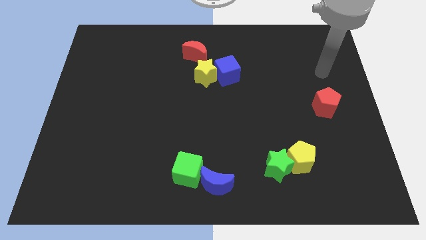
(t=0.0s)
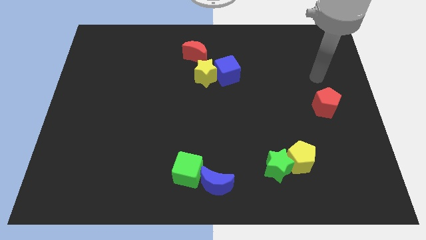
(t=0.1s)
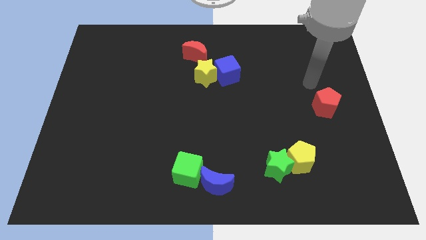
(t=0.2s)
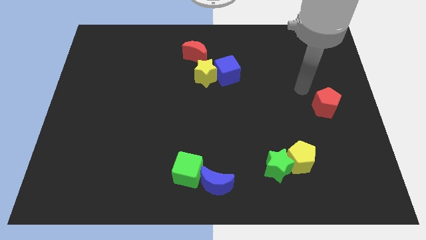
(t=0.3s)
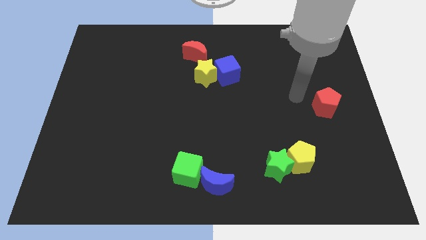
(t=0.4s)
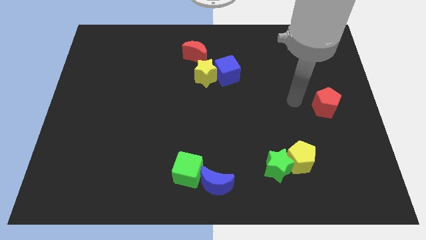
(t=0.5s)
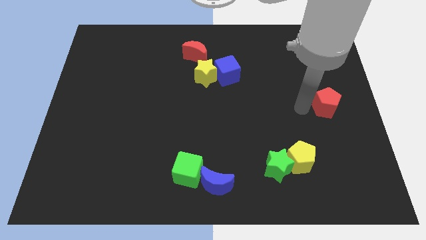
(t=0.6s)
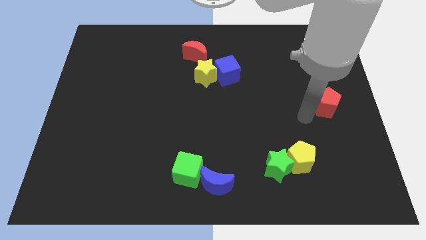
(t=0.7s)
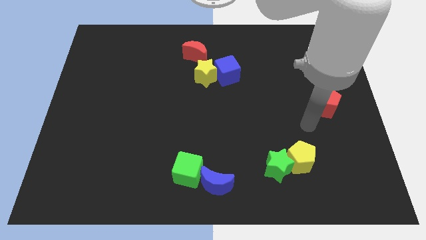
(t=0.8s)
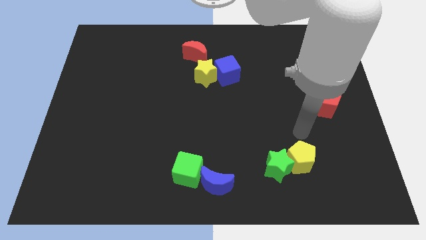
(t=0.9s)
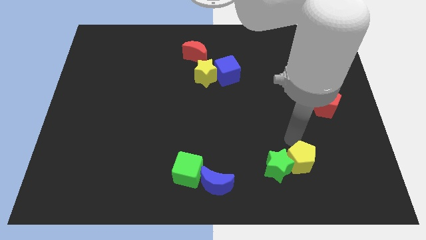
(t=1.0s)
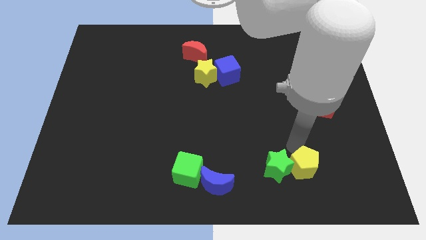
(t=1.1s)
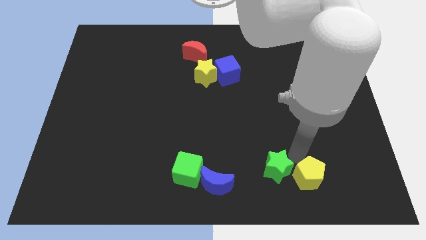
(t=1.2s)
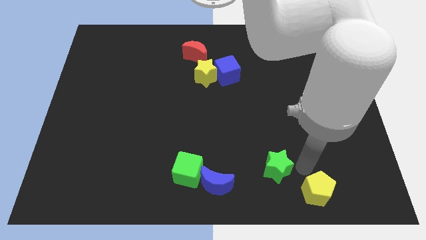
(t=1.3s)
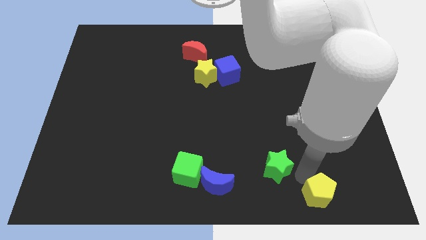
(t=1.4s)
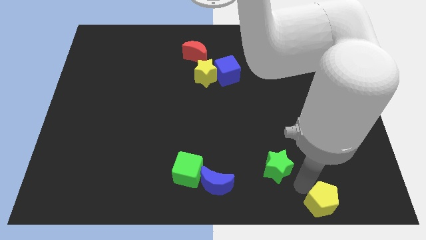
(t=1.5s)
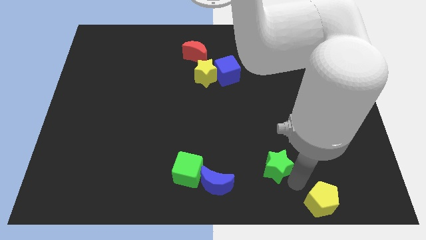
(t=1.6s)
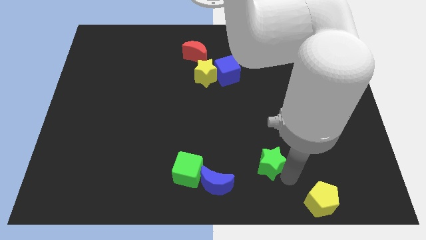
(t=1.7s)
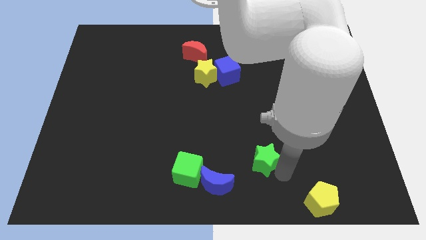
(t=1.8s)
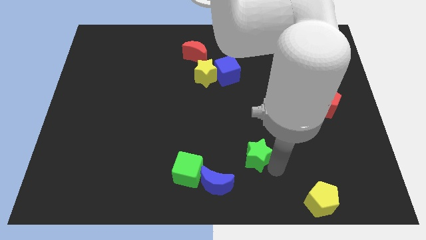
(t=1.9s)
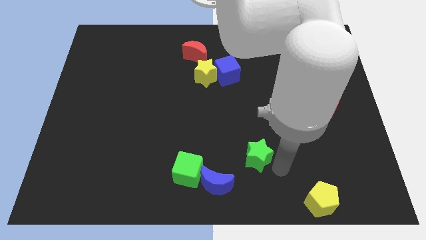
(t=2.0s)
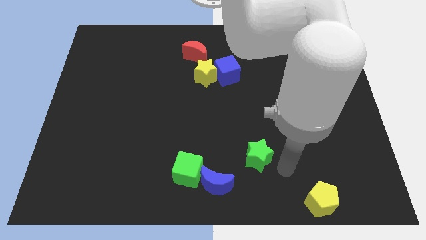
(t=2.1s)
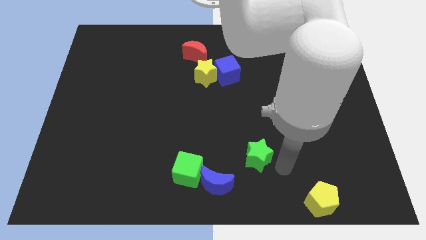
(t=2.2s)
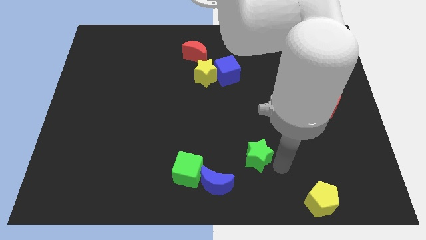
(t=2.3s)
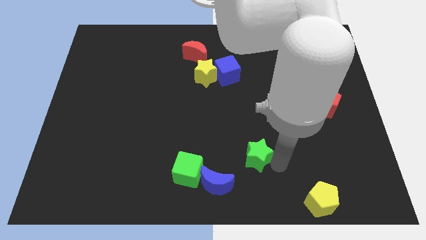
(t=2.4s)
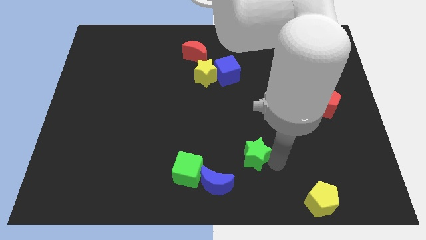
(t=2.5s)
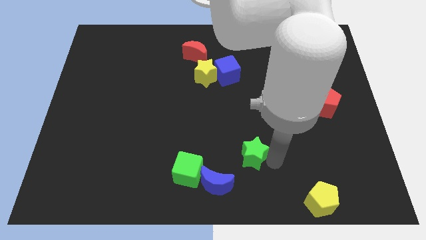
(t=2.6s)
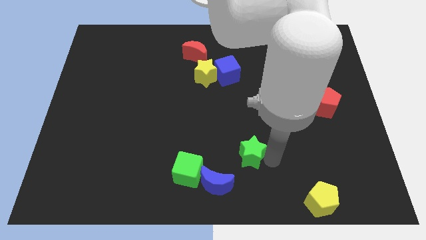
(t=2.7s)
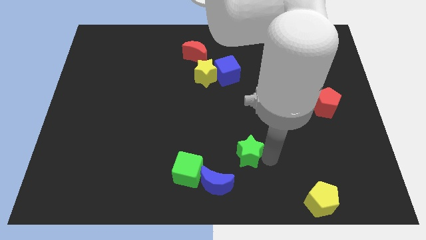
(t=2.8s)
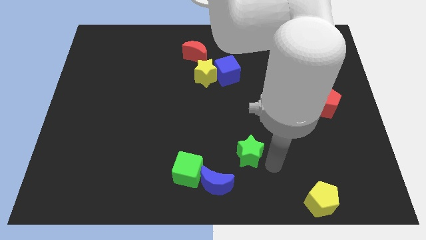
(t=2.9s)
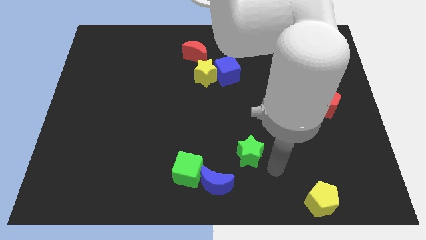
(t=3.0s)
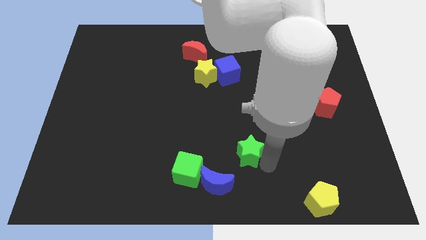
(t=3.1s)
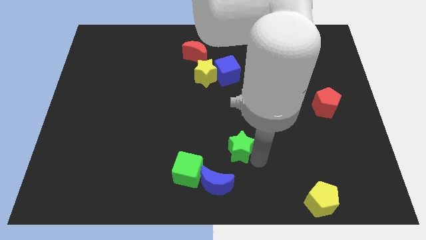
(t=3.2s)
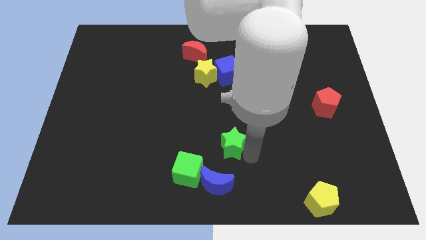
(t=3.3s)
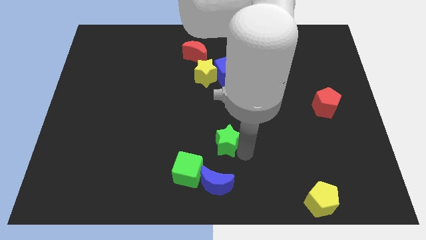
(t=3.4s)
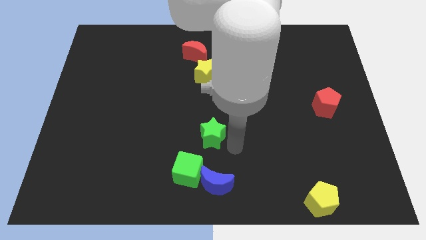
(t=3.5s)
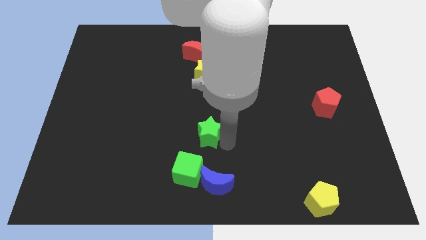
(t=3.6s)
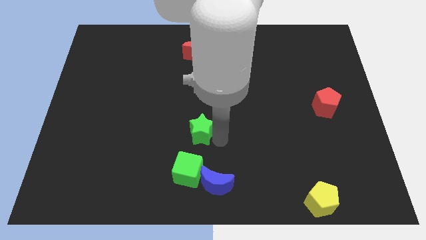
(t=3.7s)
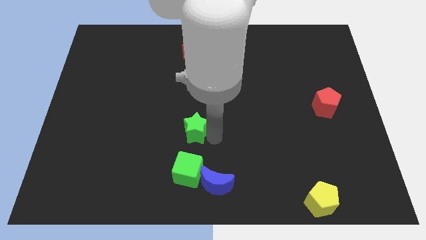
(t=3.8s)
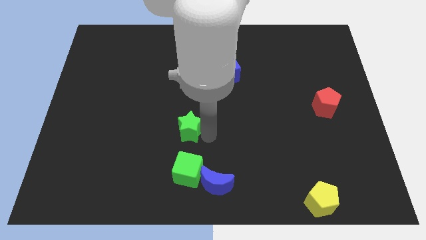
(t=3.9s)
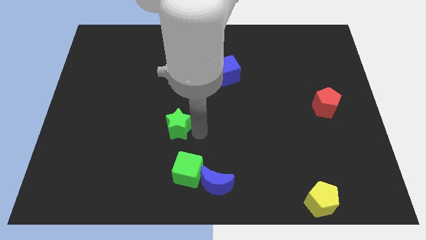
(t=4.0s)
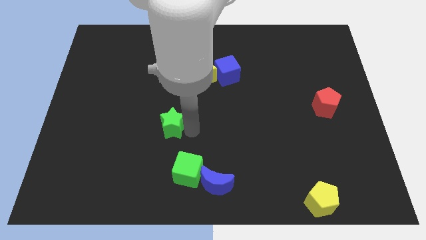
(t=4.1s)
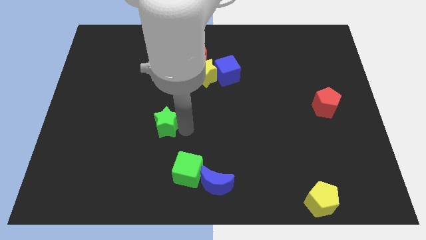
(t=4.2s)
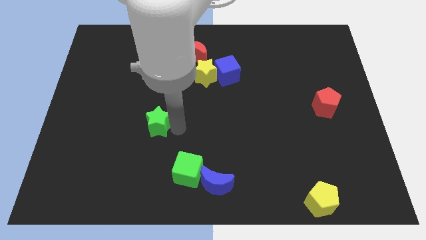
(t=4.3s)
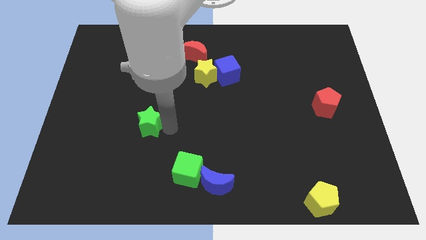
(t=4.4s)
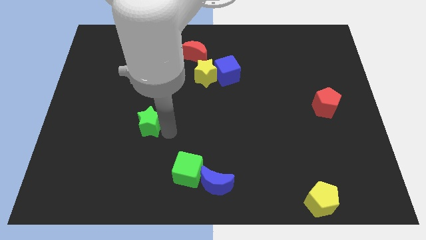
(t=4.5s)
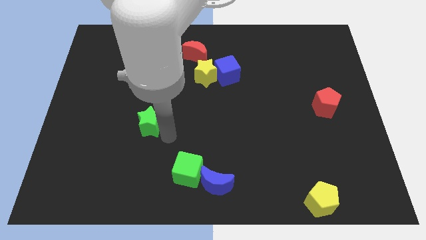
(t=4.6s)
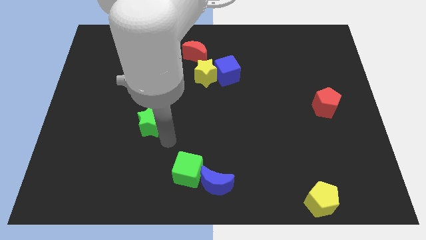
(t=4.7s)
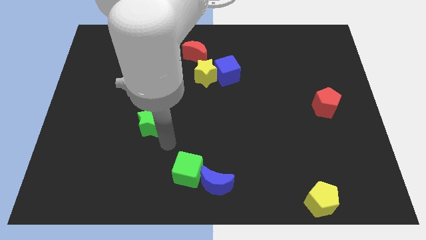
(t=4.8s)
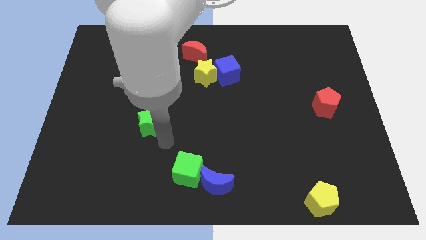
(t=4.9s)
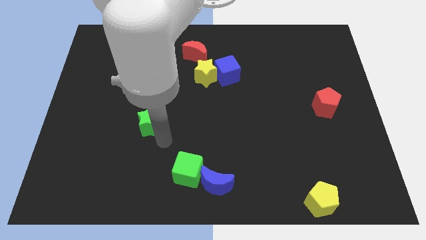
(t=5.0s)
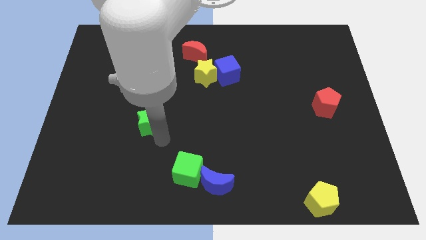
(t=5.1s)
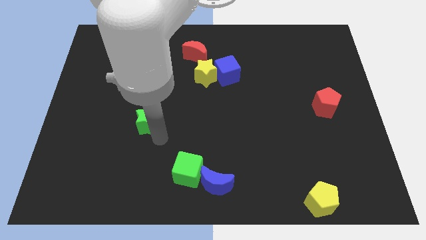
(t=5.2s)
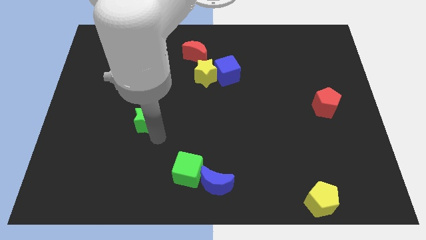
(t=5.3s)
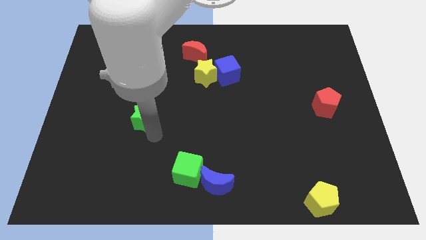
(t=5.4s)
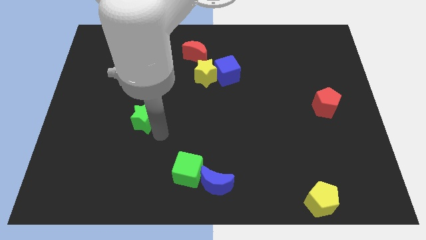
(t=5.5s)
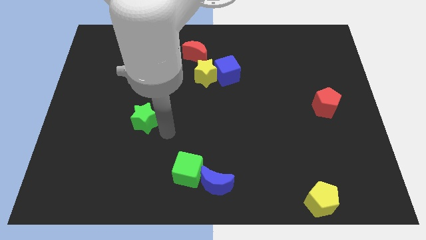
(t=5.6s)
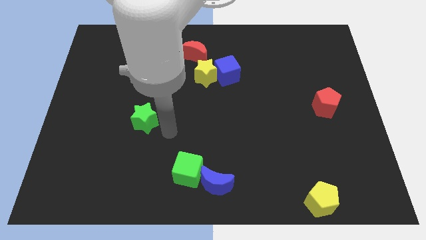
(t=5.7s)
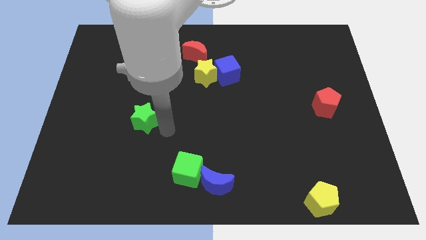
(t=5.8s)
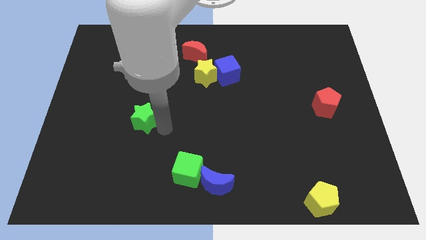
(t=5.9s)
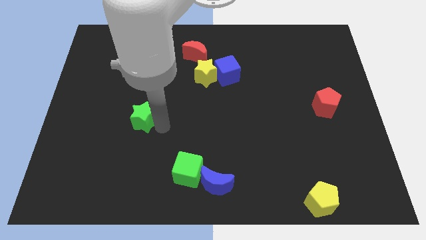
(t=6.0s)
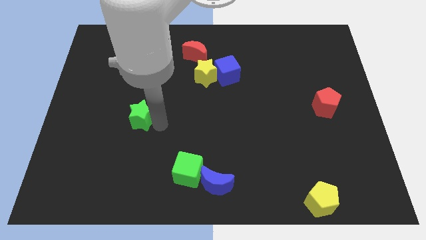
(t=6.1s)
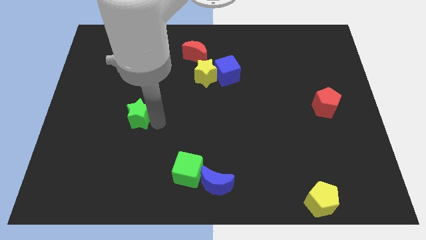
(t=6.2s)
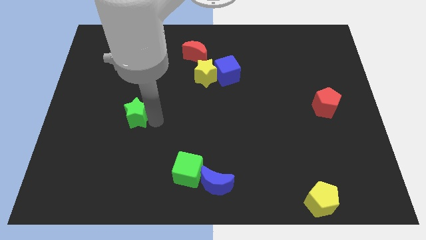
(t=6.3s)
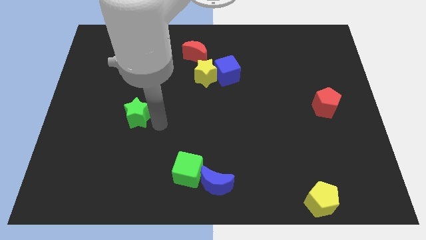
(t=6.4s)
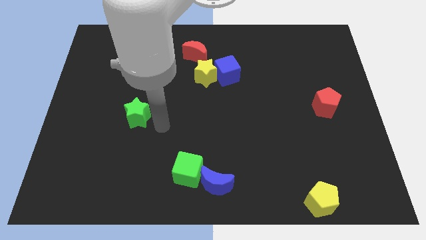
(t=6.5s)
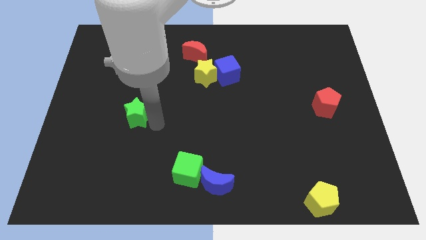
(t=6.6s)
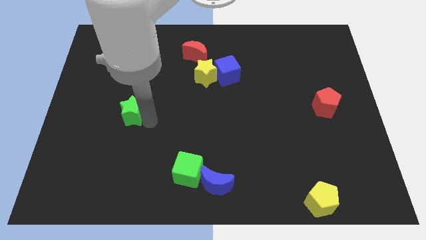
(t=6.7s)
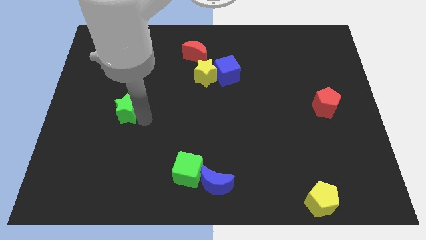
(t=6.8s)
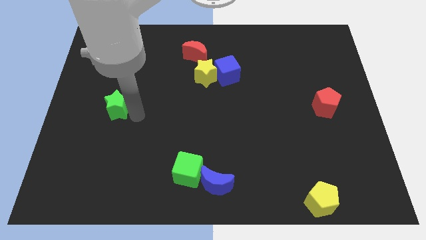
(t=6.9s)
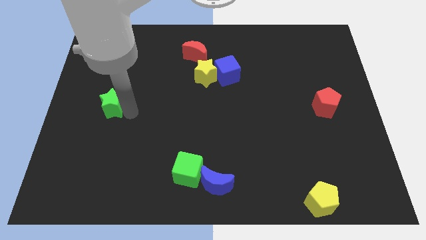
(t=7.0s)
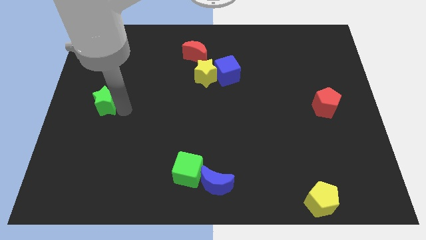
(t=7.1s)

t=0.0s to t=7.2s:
push the green star to the left side of the board

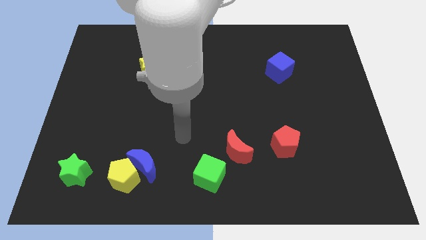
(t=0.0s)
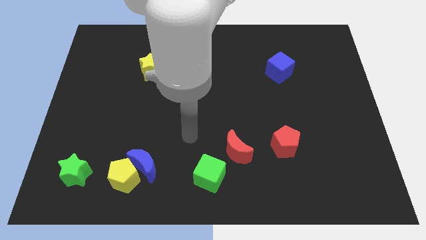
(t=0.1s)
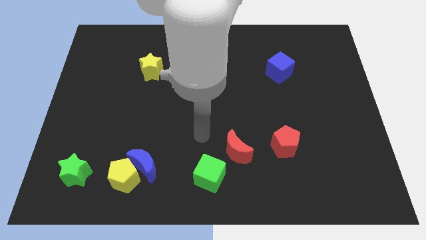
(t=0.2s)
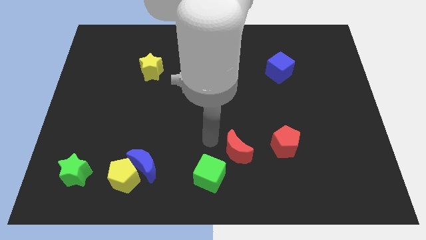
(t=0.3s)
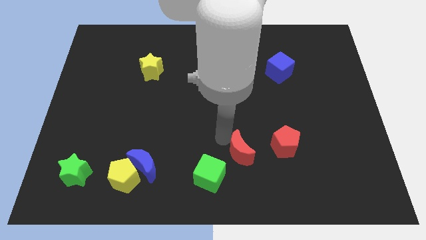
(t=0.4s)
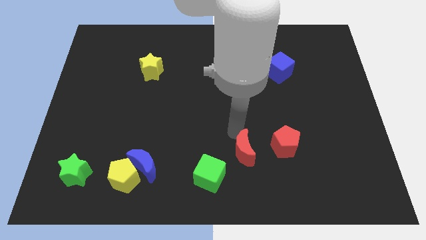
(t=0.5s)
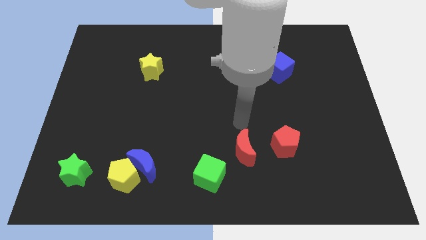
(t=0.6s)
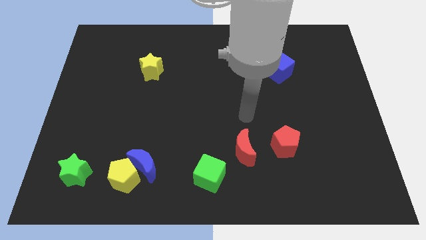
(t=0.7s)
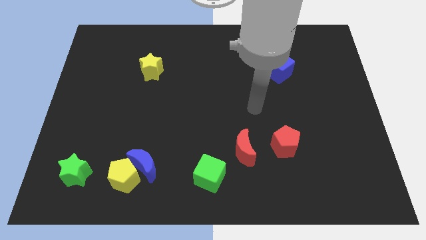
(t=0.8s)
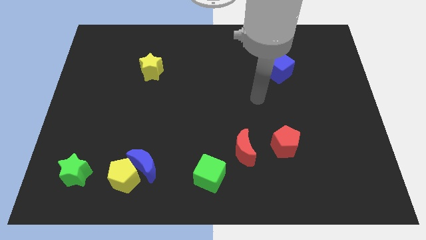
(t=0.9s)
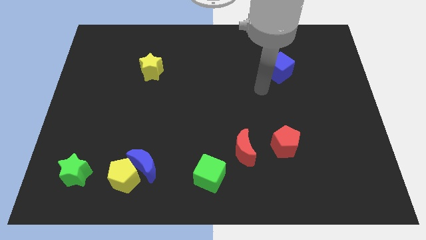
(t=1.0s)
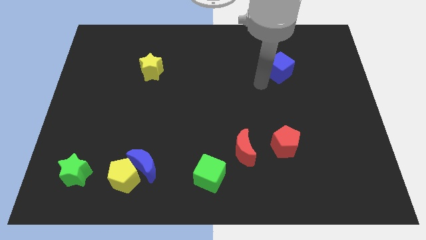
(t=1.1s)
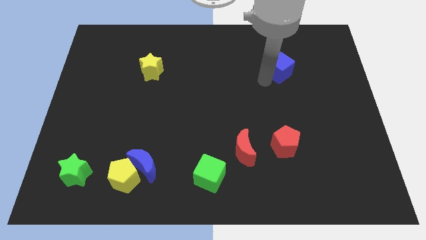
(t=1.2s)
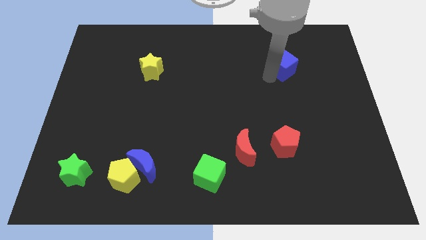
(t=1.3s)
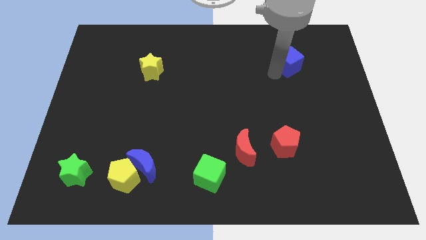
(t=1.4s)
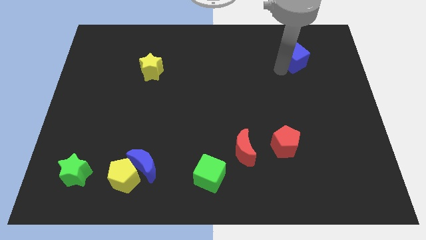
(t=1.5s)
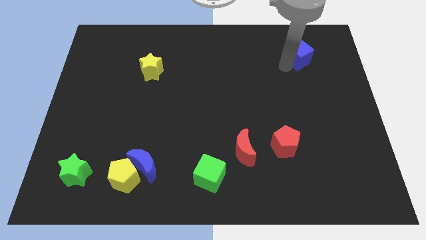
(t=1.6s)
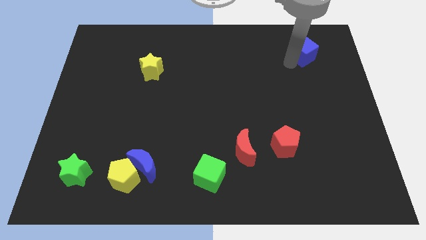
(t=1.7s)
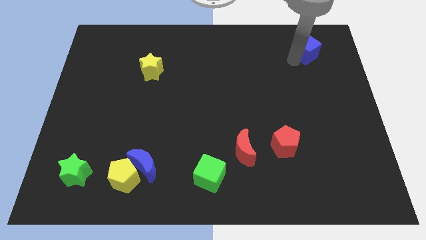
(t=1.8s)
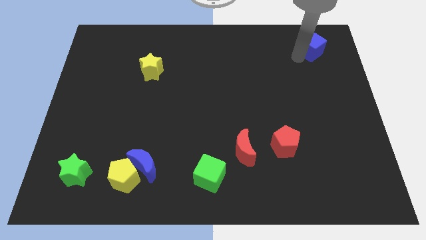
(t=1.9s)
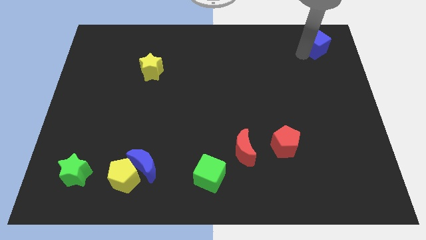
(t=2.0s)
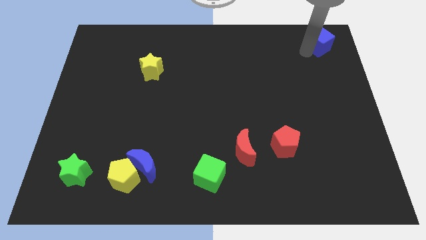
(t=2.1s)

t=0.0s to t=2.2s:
slide the blue cube to the top right
